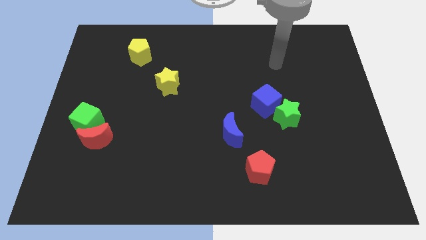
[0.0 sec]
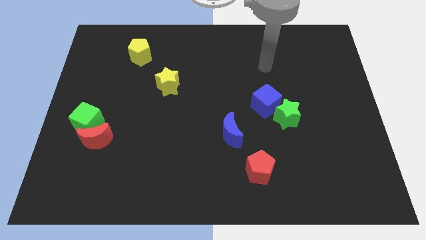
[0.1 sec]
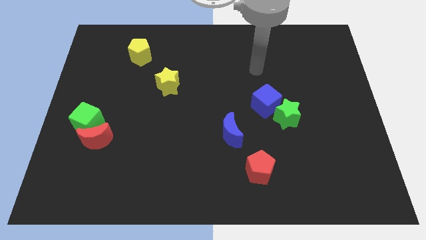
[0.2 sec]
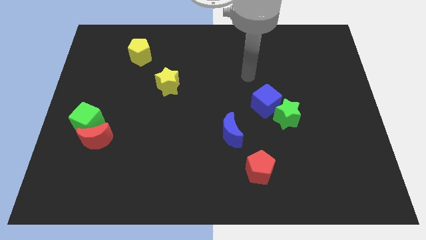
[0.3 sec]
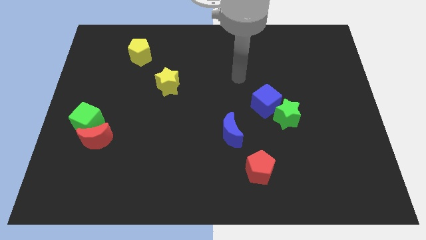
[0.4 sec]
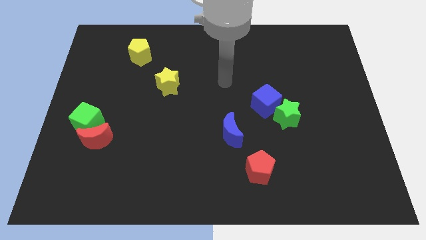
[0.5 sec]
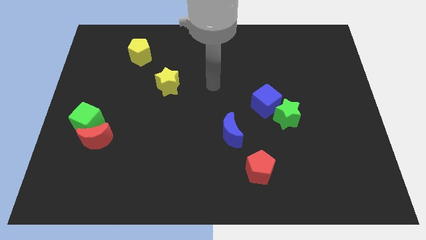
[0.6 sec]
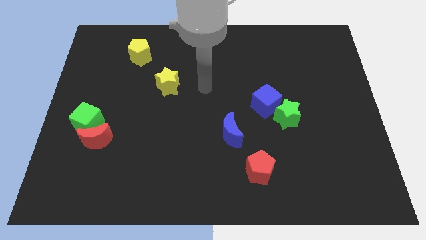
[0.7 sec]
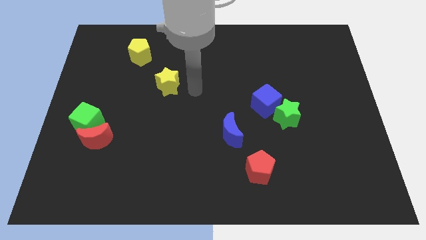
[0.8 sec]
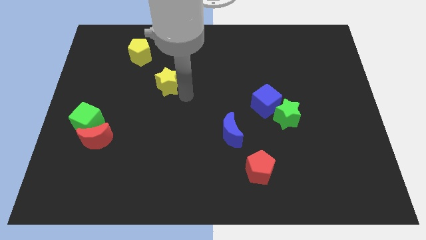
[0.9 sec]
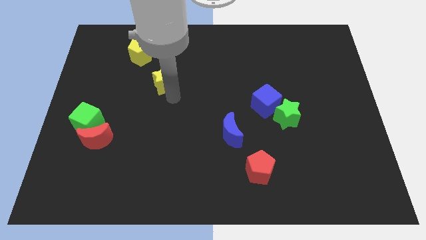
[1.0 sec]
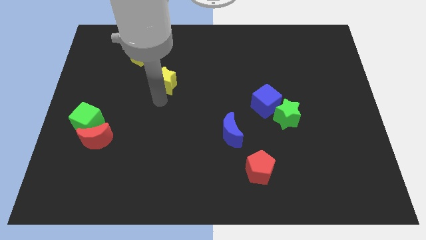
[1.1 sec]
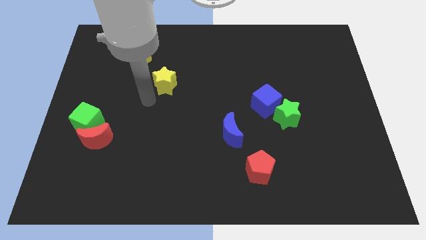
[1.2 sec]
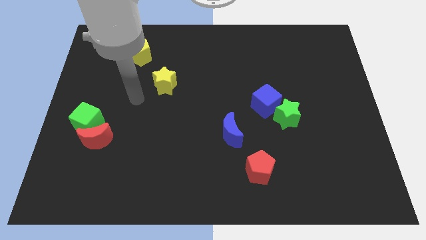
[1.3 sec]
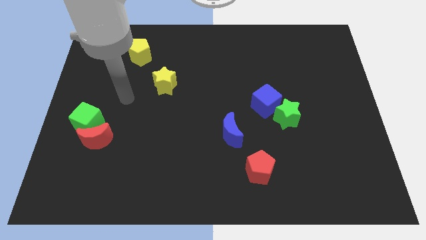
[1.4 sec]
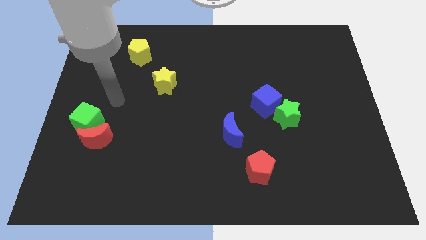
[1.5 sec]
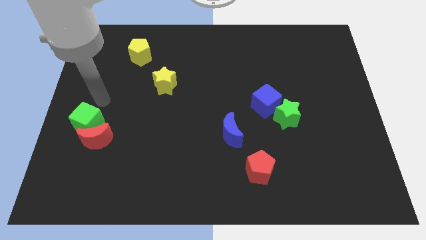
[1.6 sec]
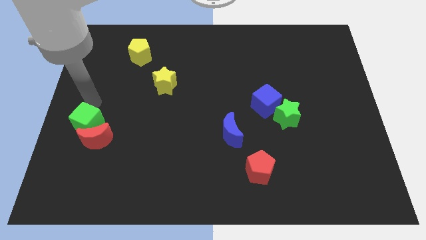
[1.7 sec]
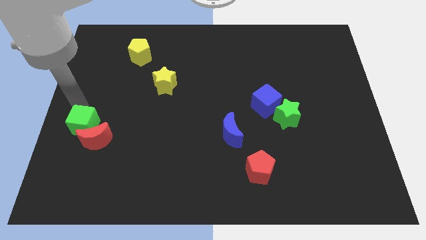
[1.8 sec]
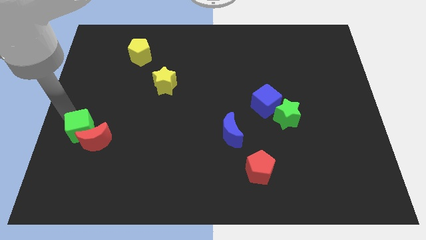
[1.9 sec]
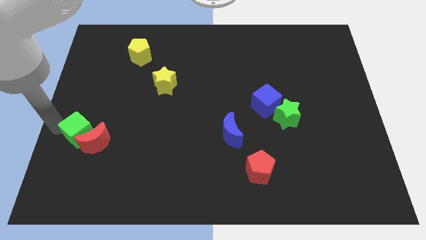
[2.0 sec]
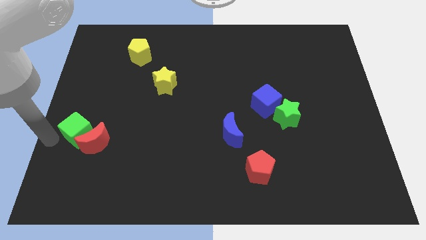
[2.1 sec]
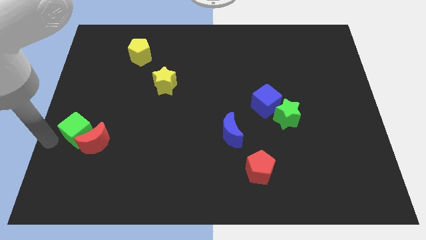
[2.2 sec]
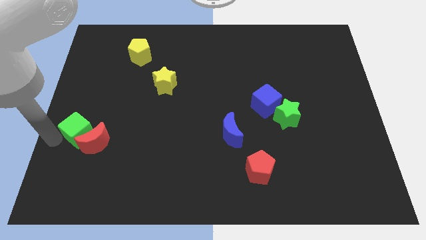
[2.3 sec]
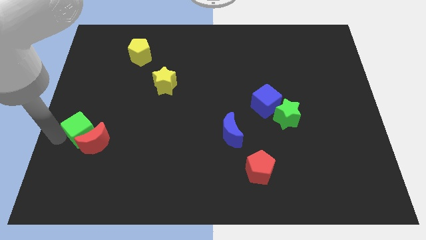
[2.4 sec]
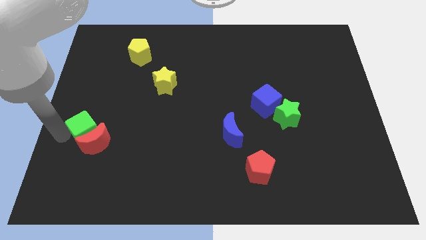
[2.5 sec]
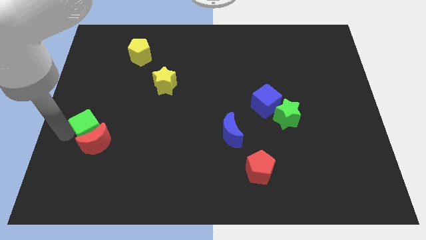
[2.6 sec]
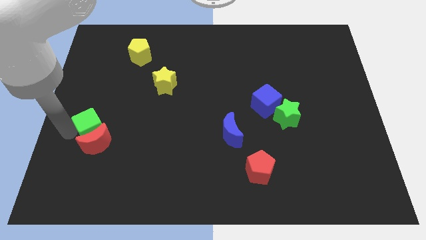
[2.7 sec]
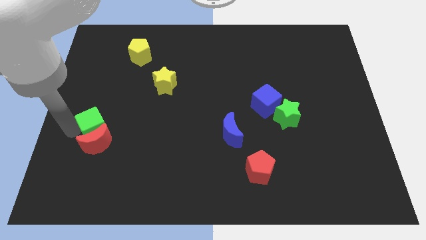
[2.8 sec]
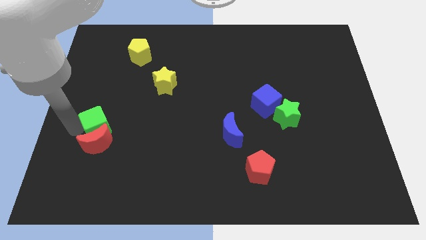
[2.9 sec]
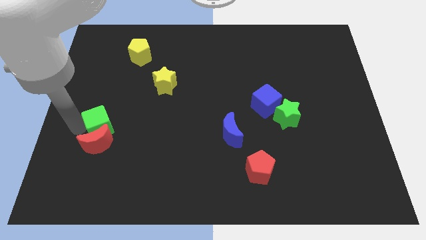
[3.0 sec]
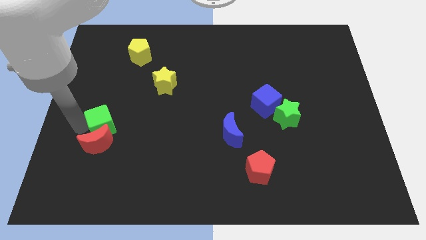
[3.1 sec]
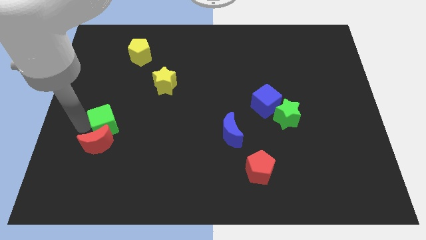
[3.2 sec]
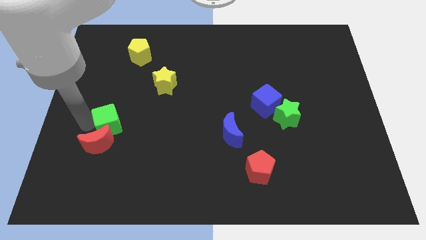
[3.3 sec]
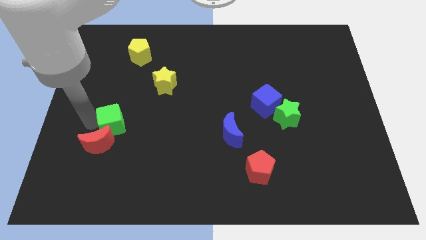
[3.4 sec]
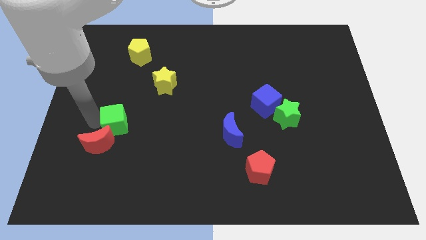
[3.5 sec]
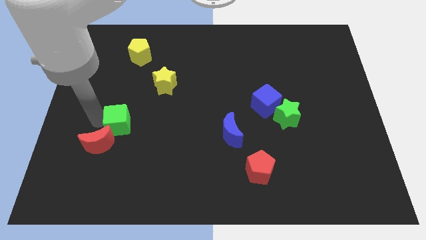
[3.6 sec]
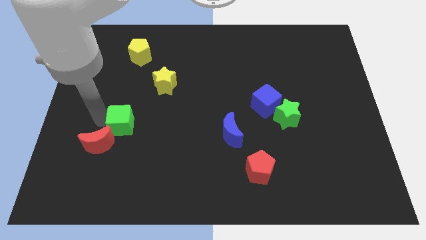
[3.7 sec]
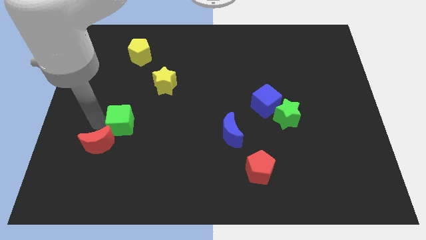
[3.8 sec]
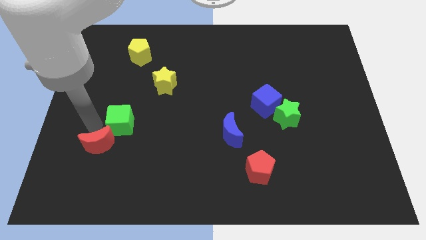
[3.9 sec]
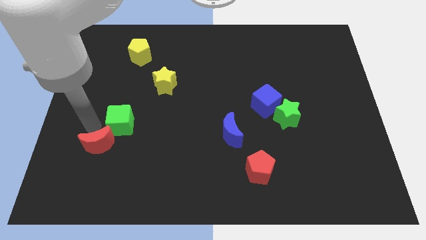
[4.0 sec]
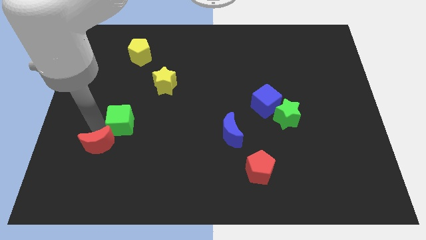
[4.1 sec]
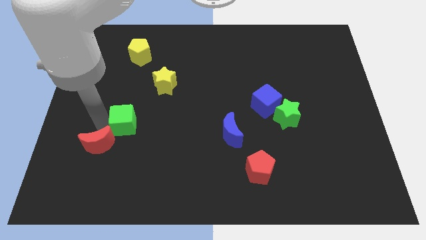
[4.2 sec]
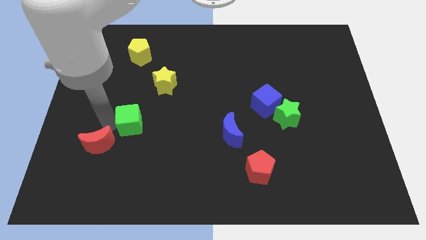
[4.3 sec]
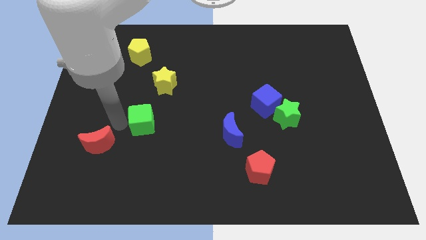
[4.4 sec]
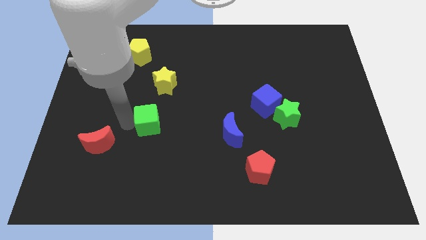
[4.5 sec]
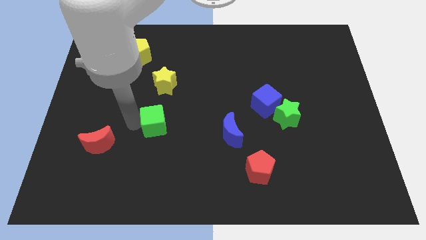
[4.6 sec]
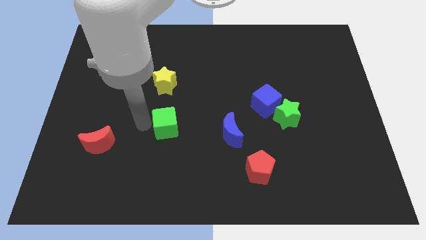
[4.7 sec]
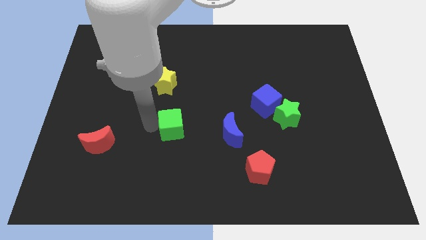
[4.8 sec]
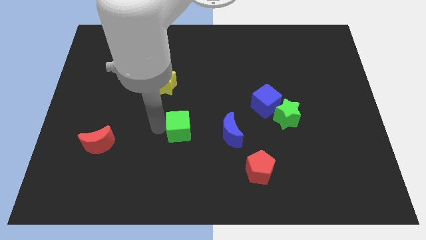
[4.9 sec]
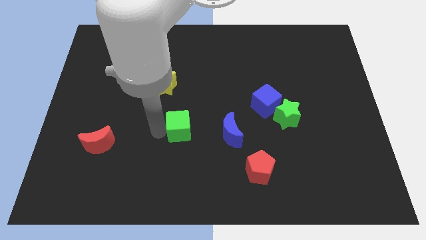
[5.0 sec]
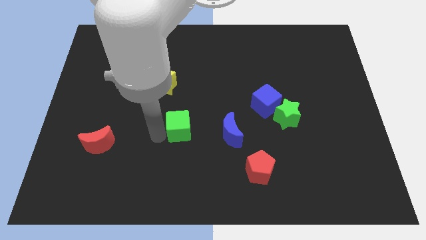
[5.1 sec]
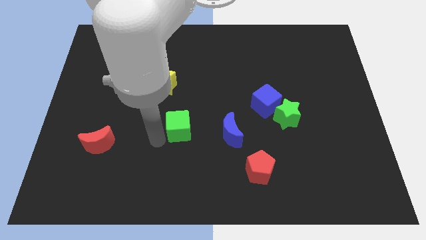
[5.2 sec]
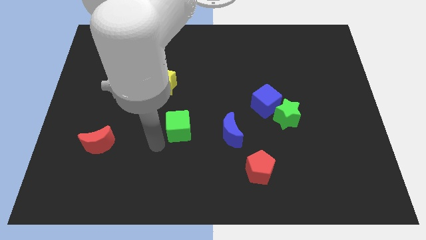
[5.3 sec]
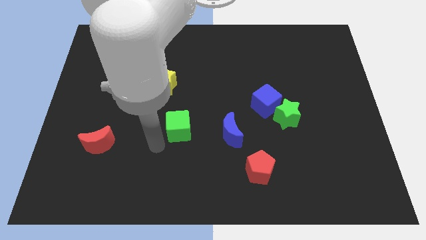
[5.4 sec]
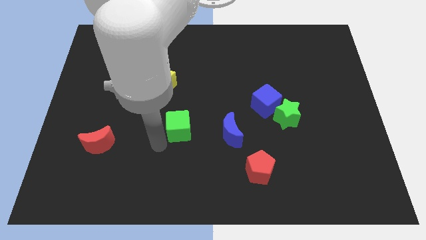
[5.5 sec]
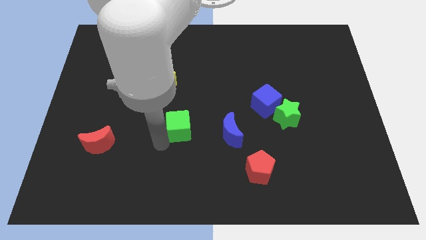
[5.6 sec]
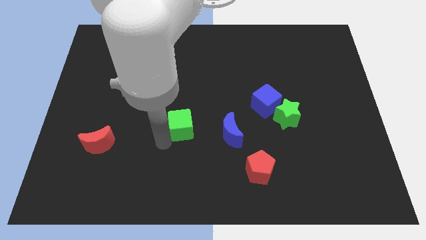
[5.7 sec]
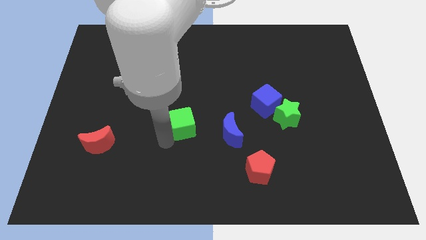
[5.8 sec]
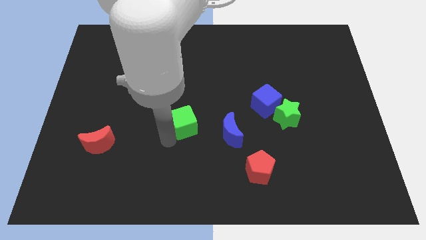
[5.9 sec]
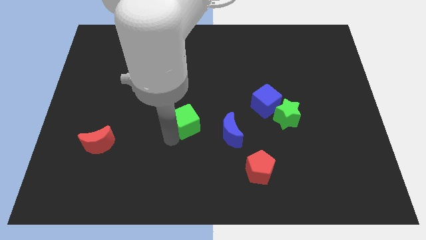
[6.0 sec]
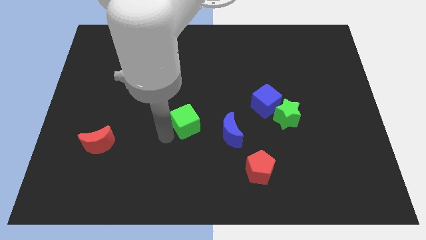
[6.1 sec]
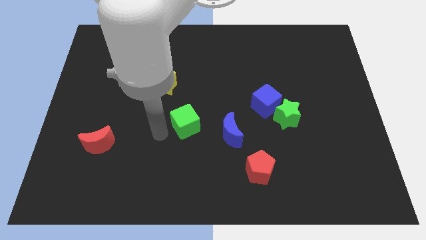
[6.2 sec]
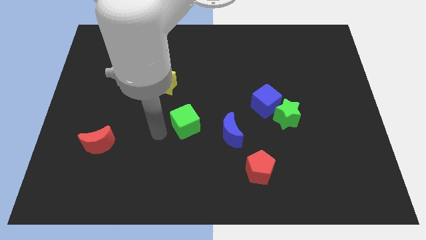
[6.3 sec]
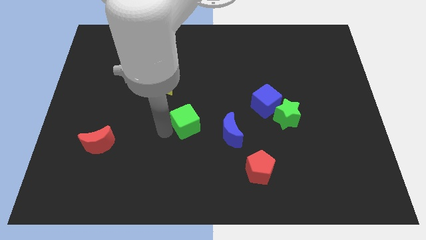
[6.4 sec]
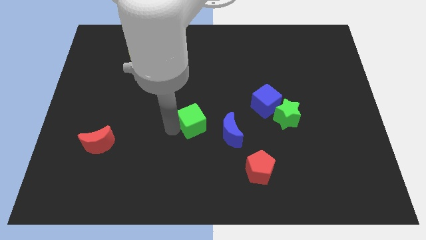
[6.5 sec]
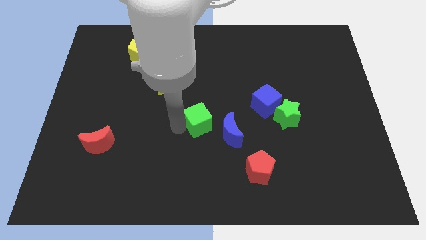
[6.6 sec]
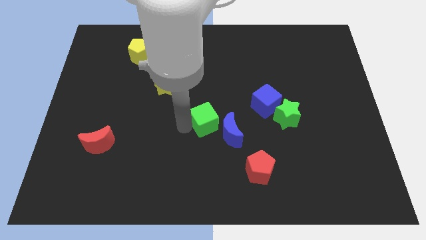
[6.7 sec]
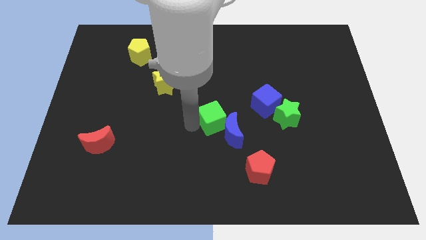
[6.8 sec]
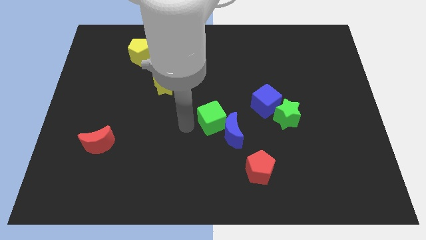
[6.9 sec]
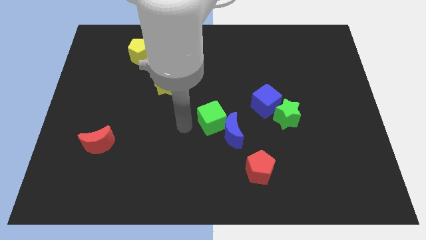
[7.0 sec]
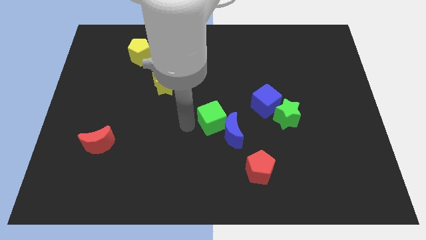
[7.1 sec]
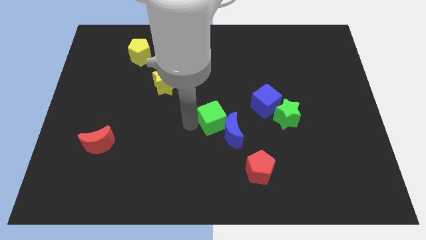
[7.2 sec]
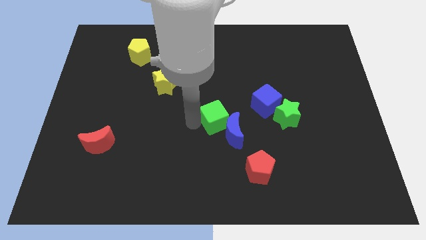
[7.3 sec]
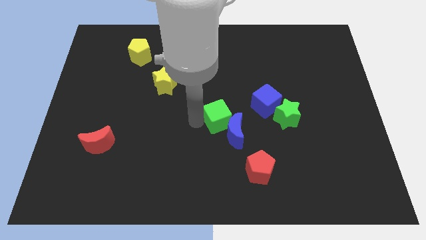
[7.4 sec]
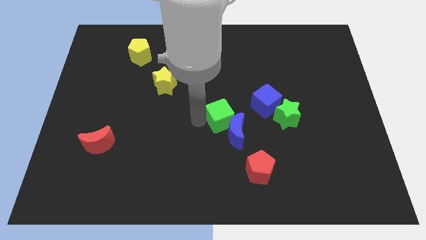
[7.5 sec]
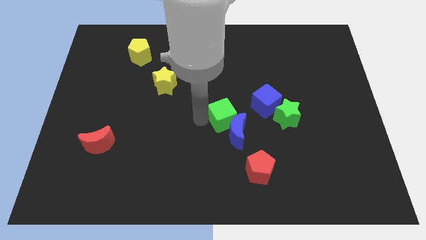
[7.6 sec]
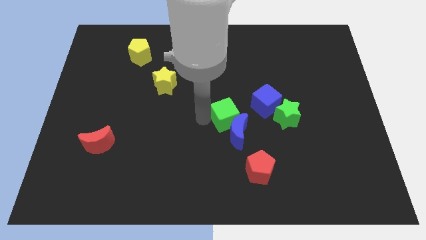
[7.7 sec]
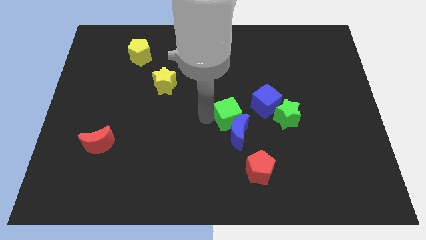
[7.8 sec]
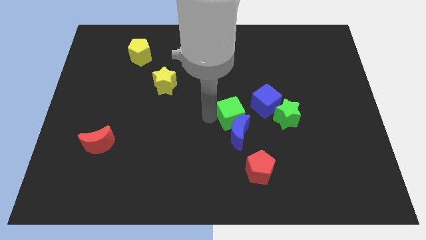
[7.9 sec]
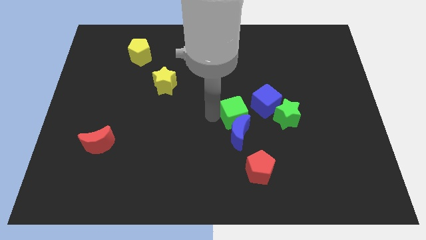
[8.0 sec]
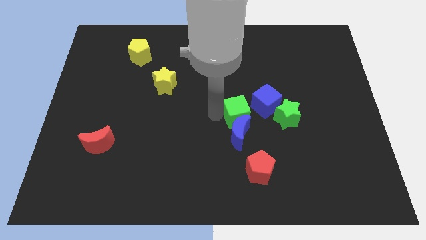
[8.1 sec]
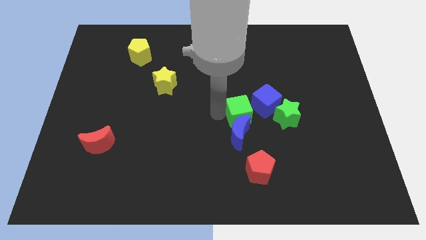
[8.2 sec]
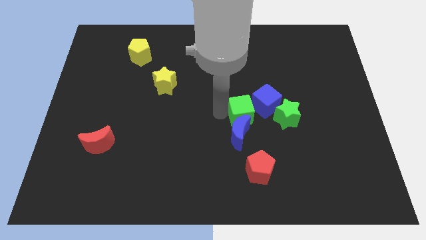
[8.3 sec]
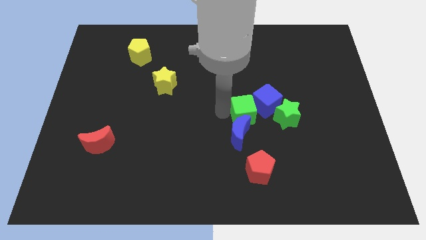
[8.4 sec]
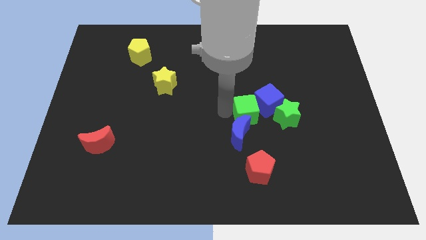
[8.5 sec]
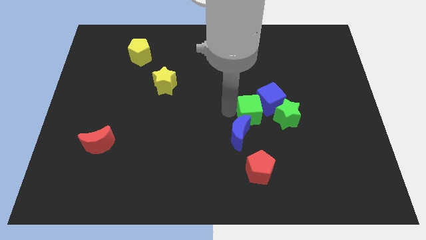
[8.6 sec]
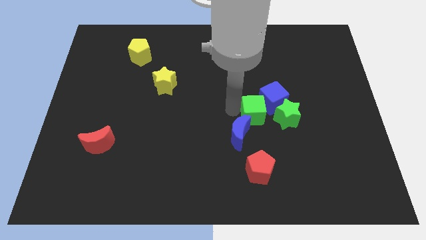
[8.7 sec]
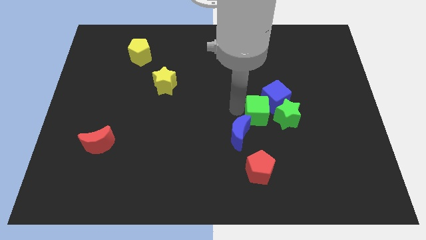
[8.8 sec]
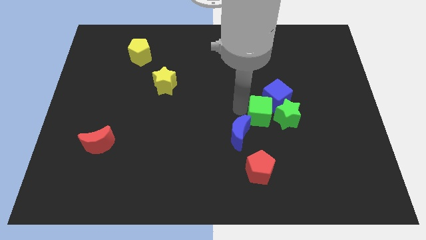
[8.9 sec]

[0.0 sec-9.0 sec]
push the green cube next to the green star
